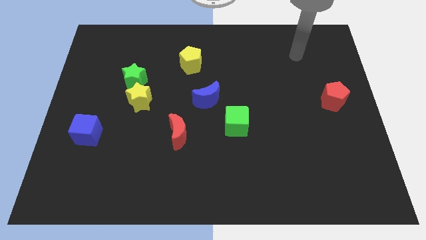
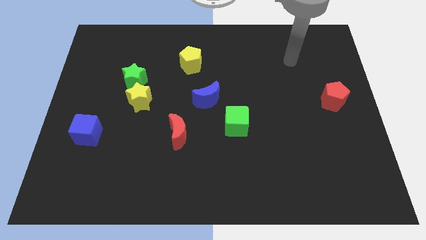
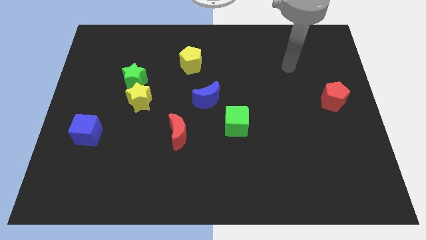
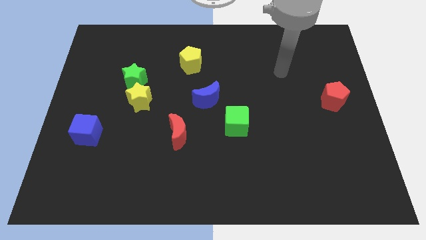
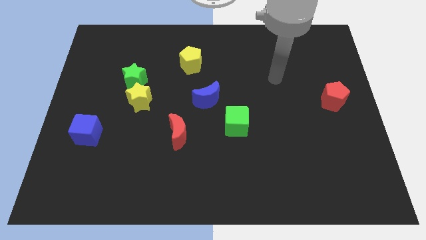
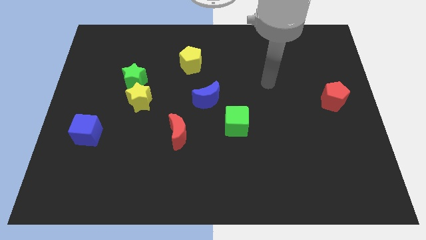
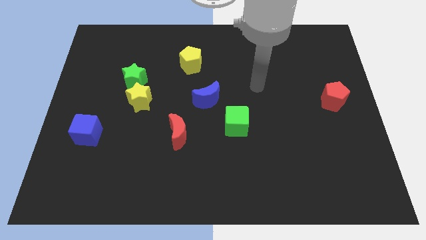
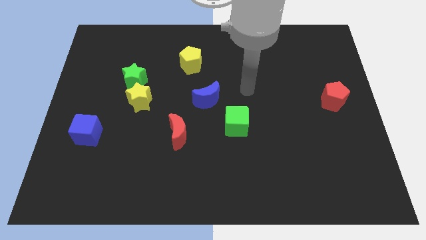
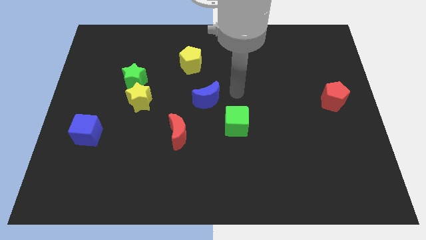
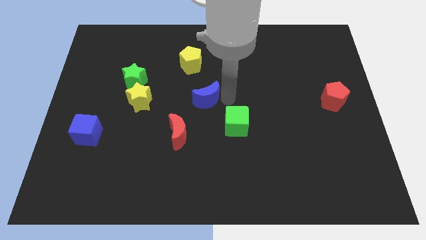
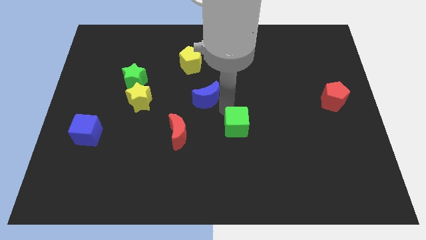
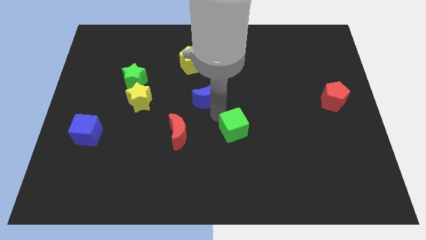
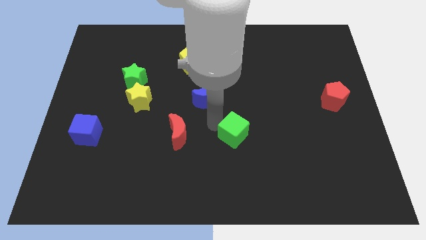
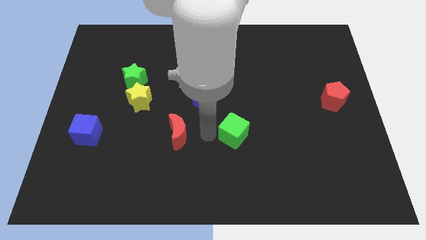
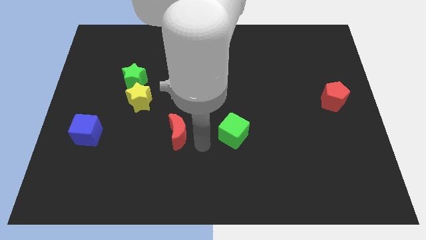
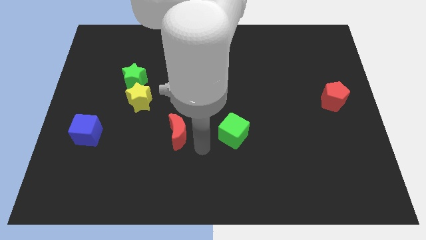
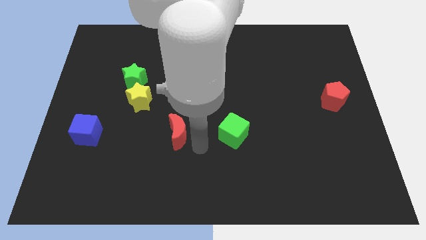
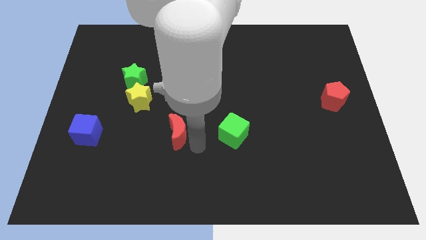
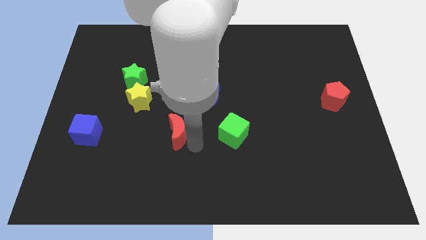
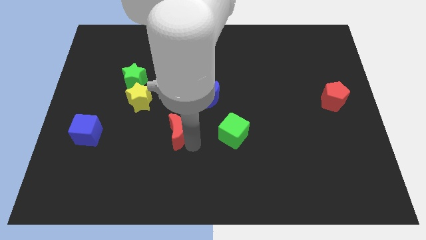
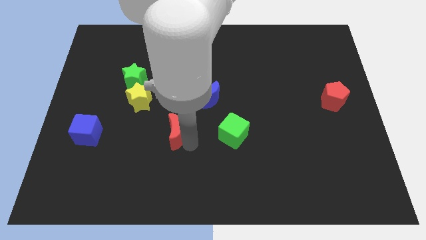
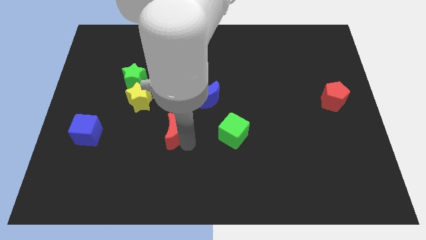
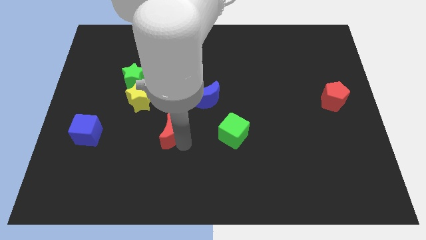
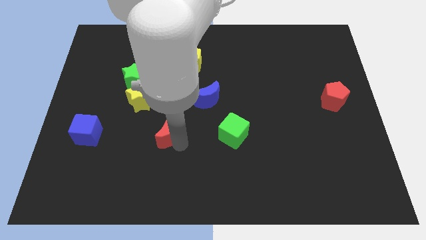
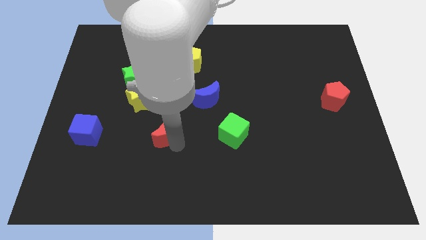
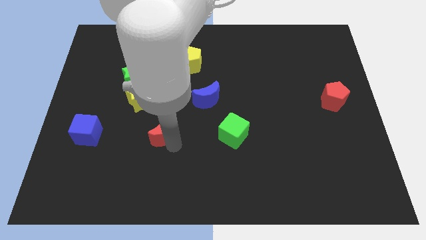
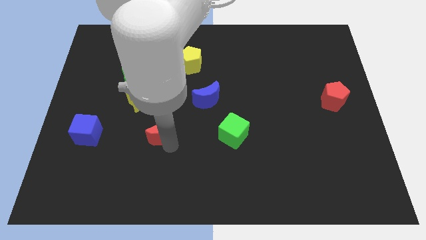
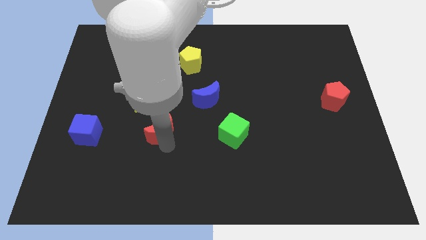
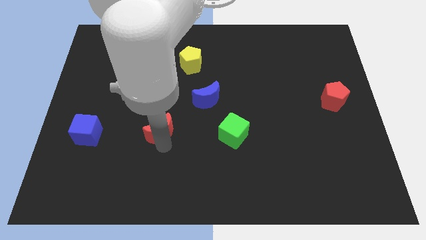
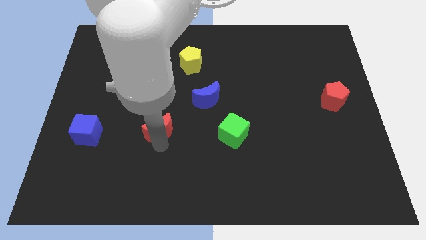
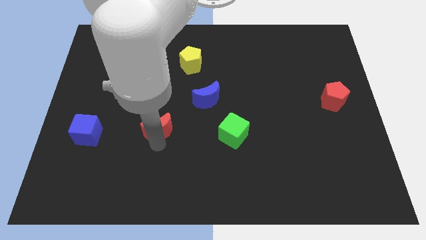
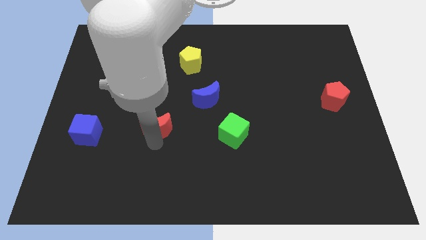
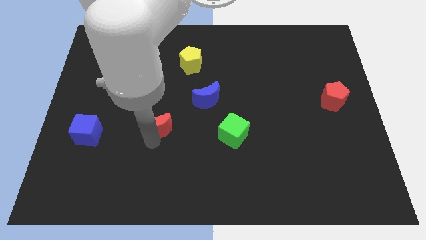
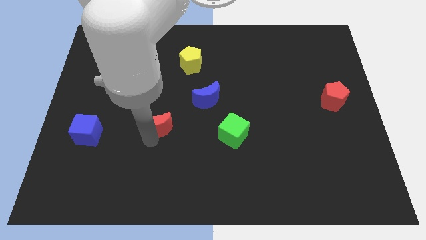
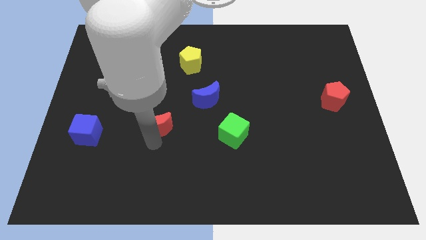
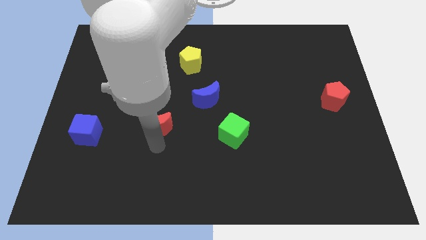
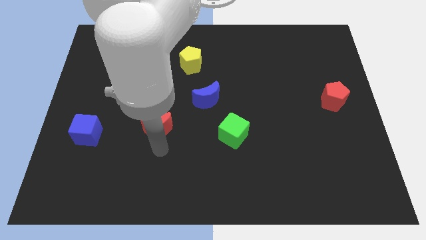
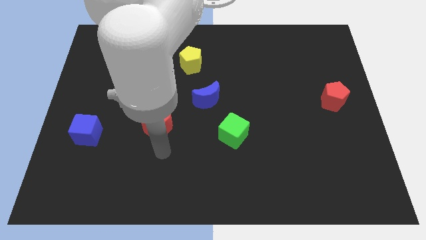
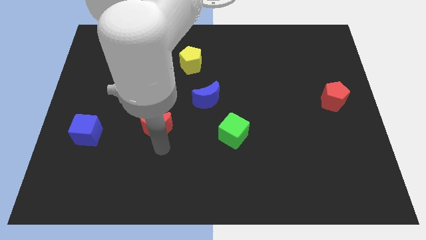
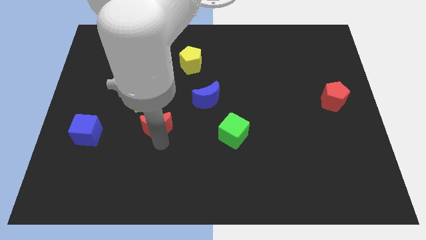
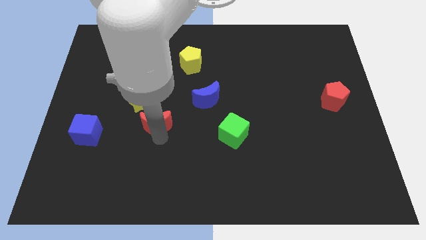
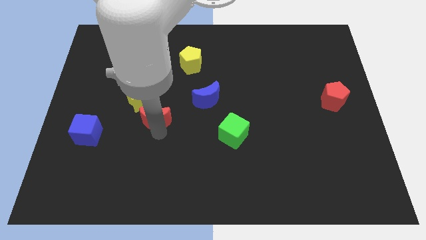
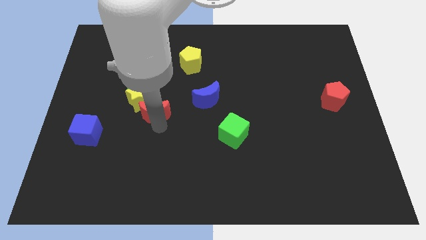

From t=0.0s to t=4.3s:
push the red moon towards the yellow star

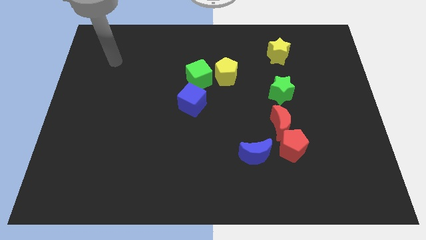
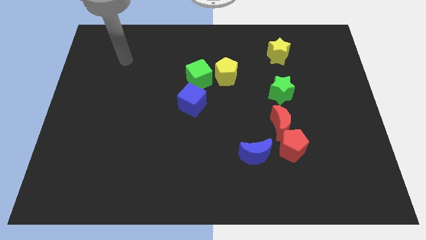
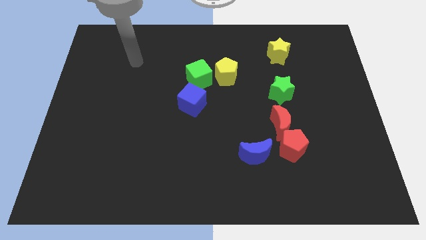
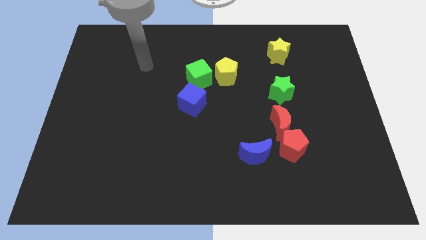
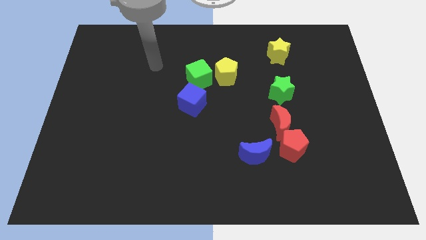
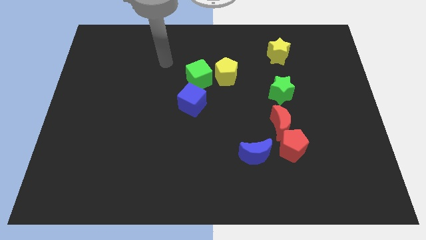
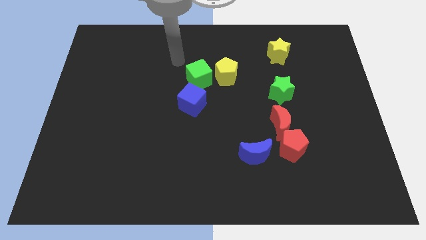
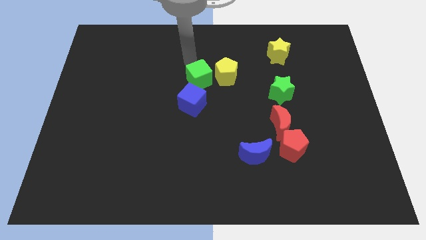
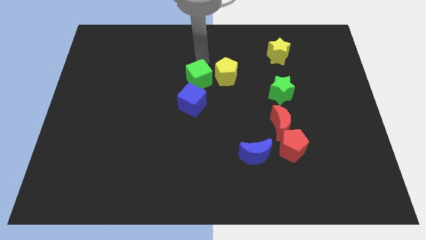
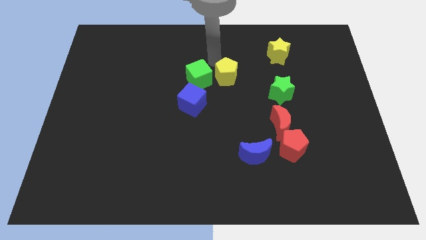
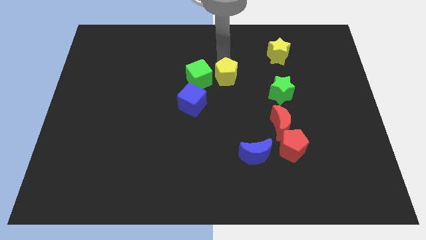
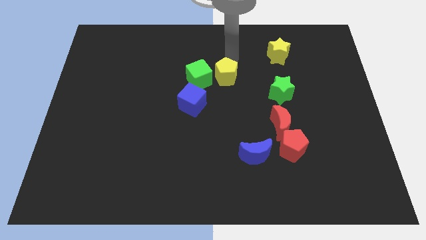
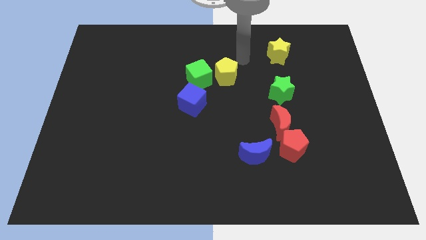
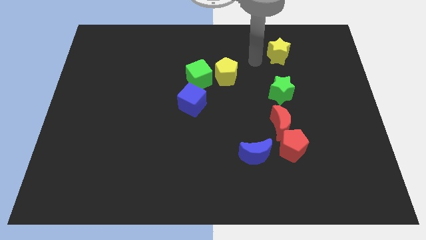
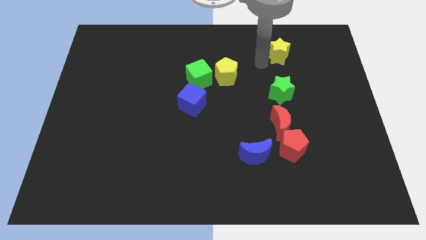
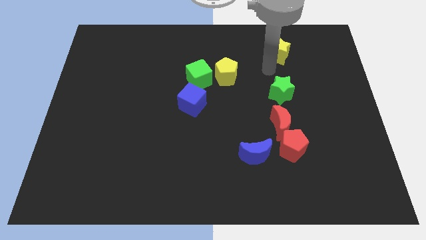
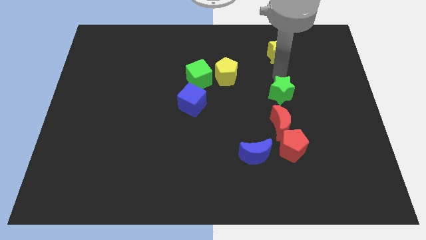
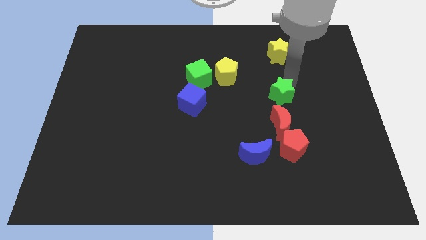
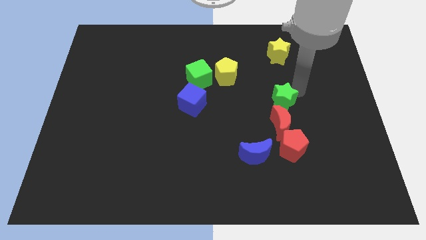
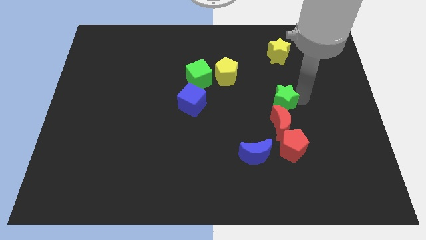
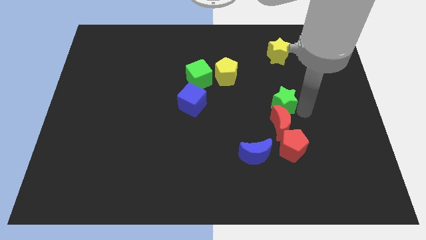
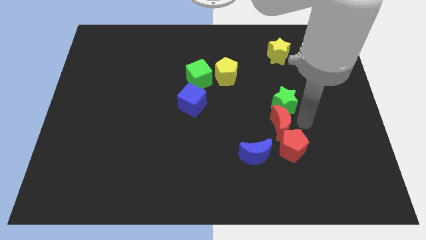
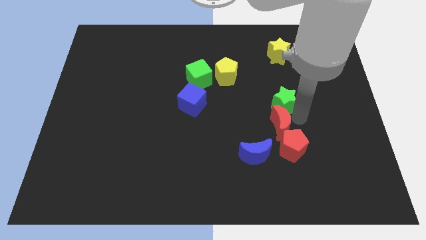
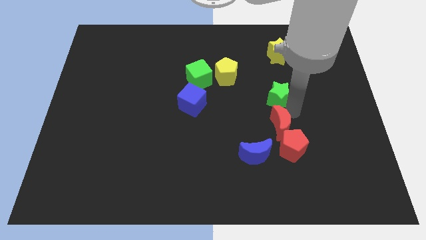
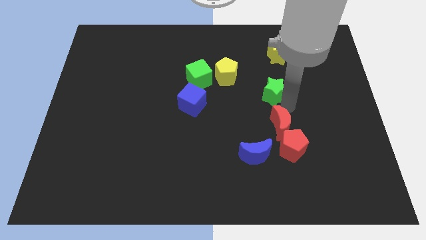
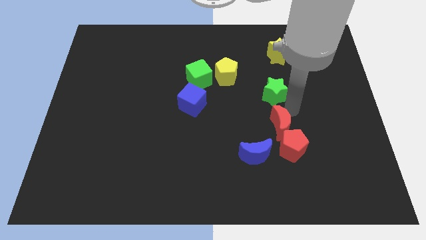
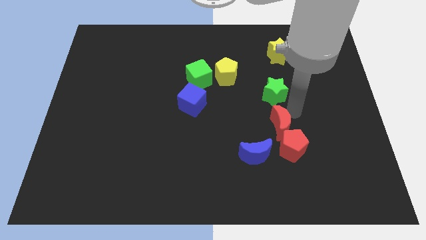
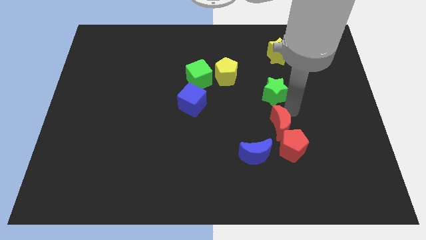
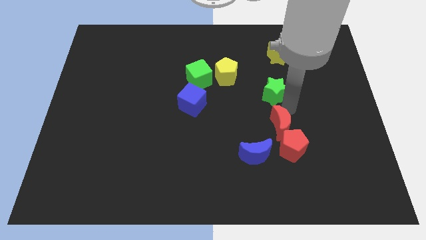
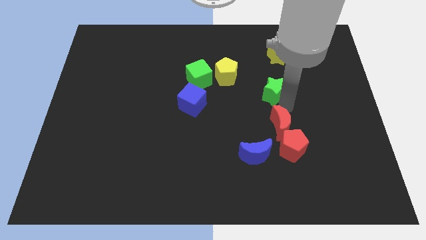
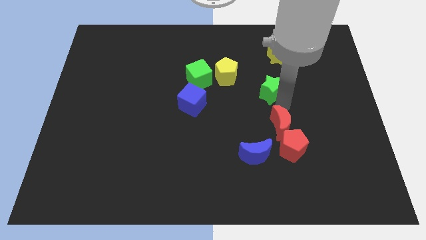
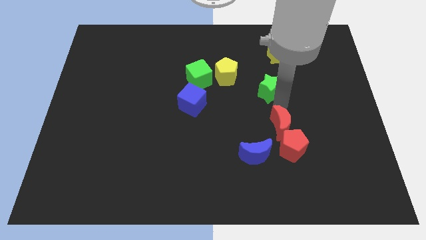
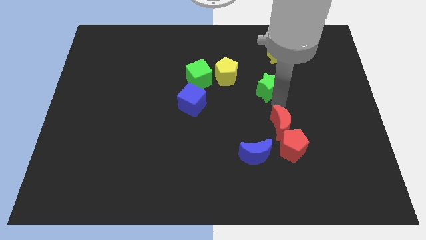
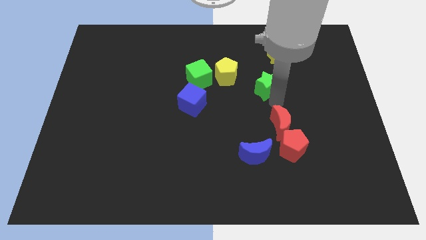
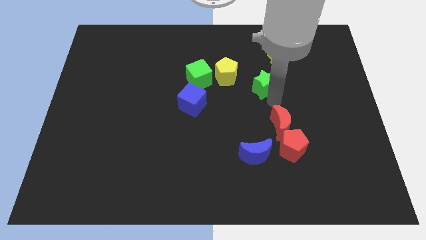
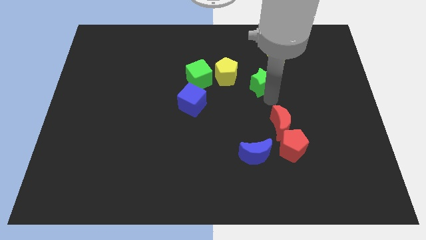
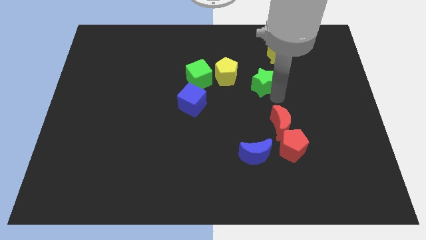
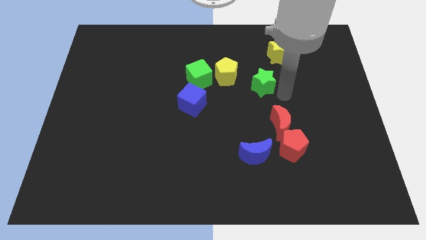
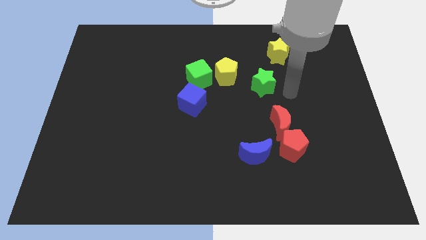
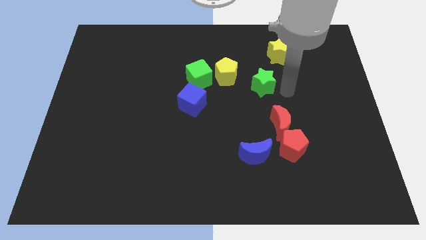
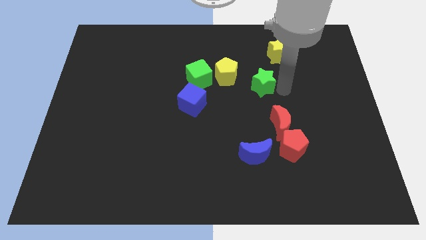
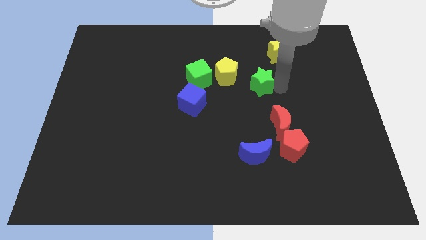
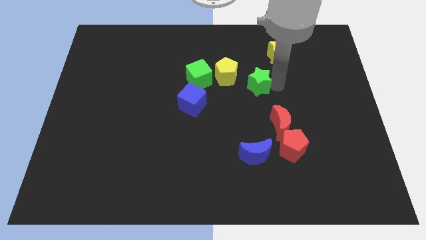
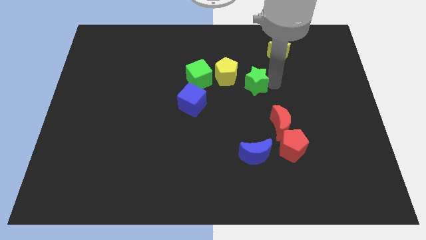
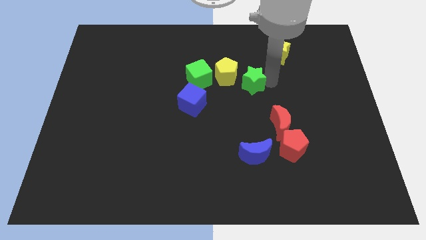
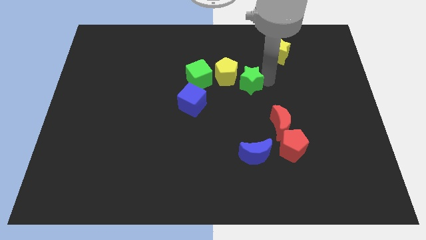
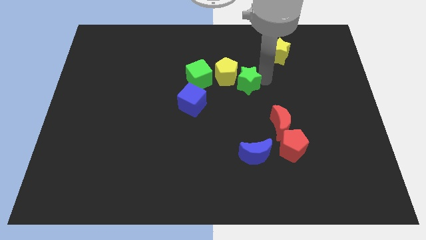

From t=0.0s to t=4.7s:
slide the green star next to the yellow pentagon
